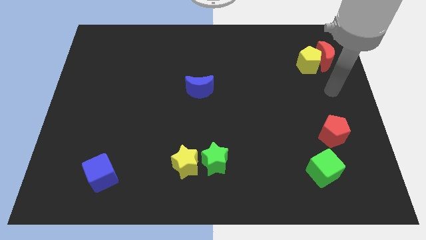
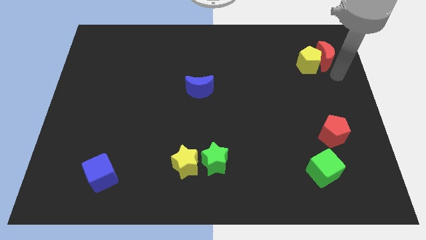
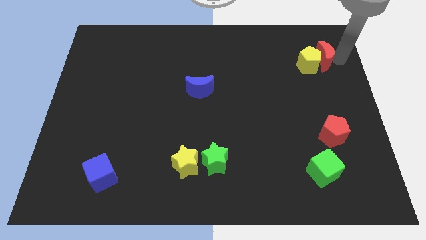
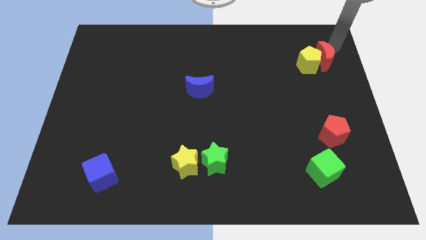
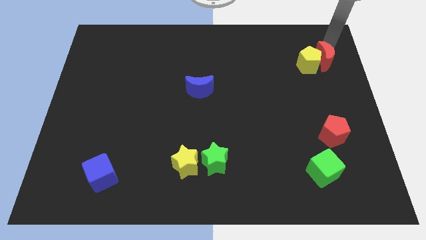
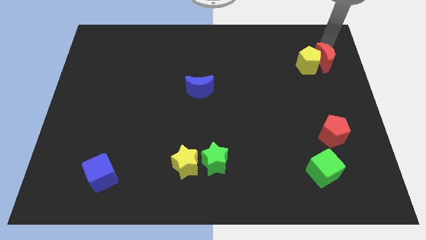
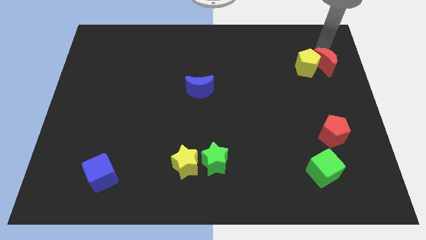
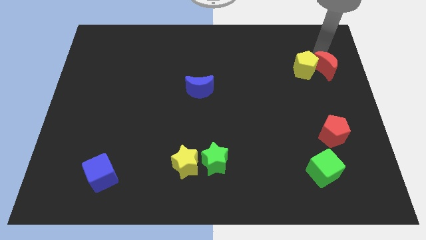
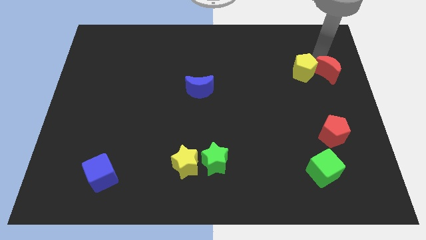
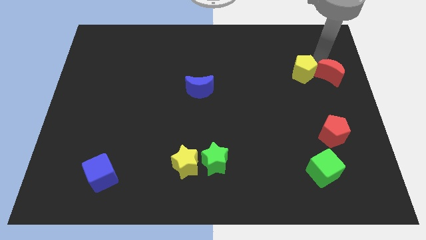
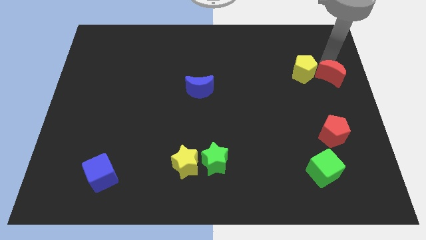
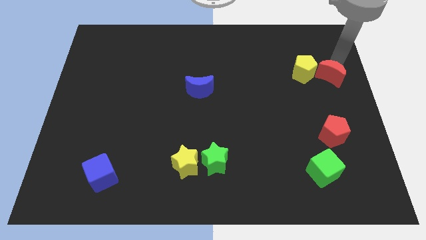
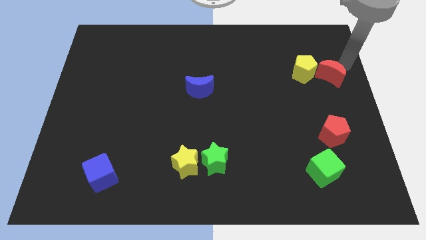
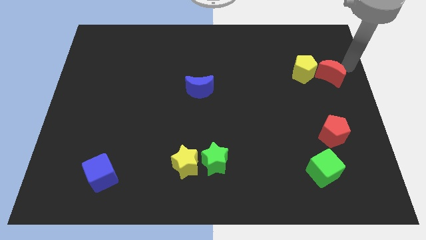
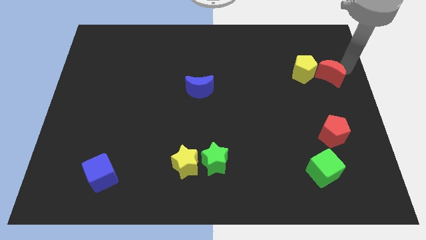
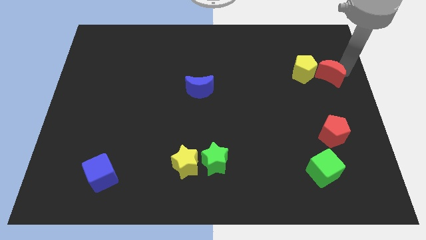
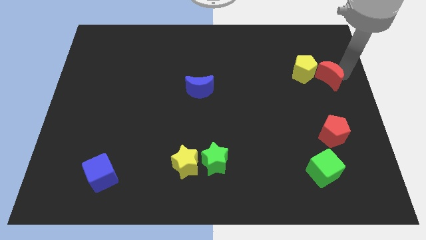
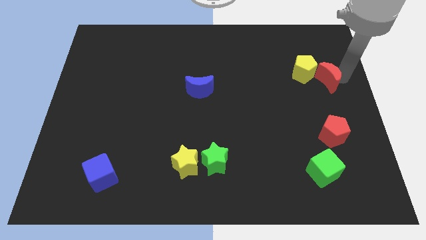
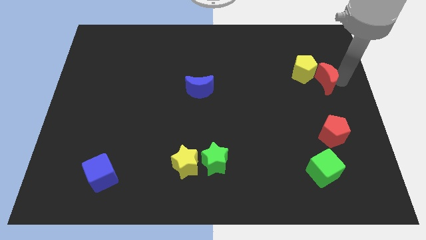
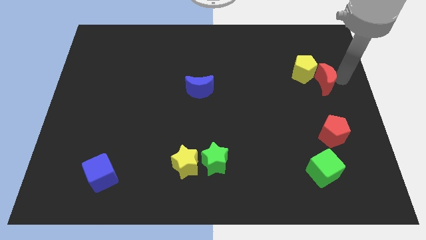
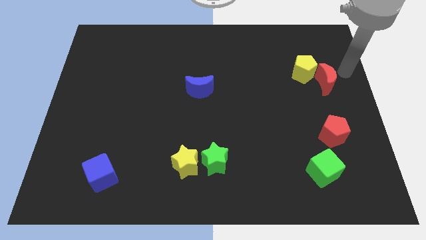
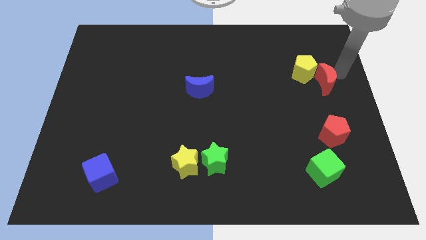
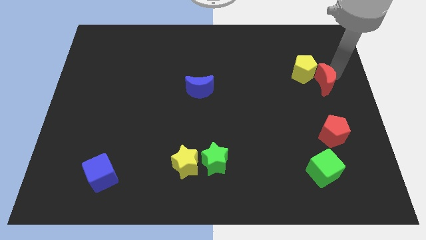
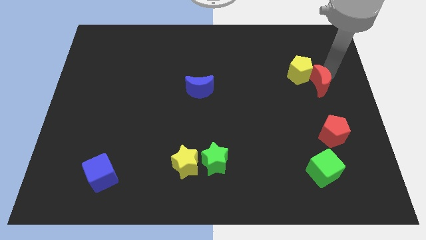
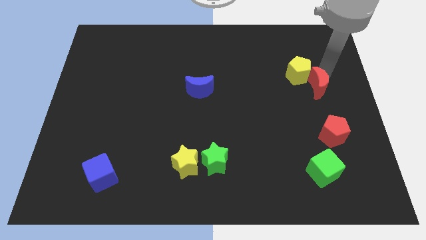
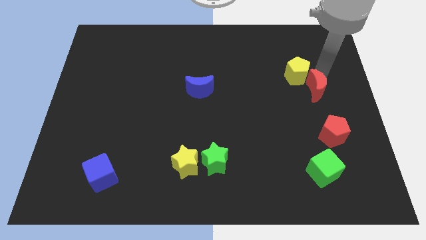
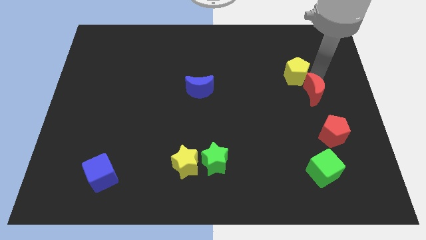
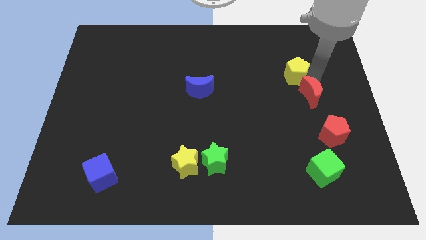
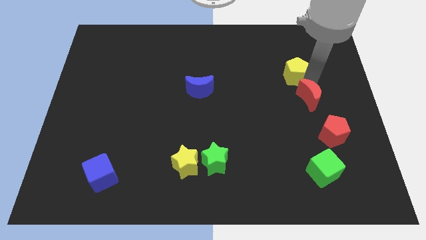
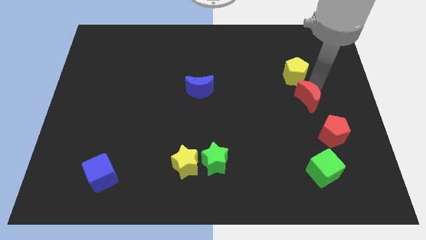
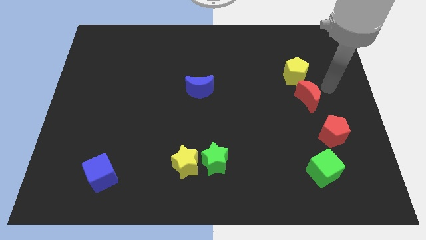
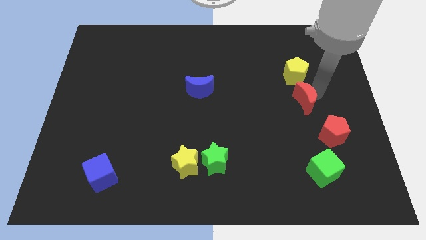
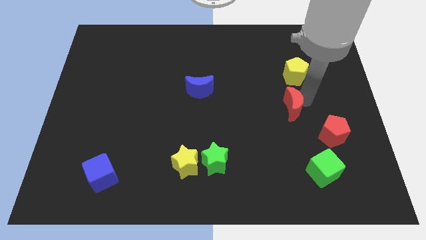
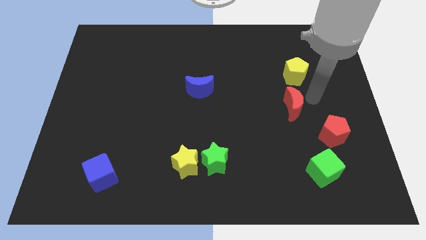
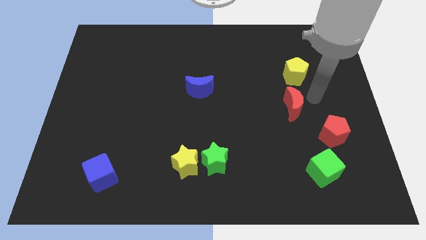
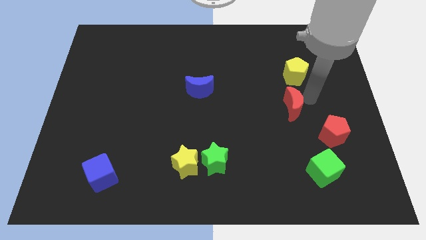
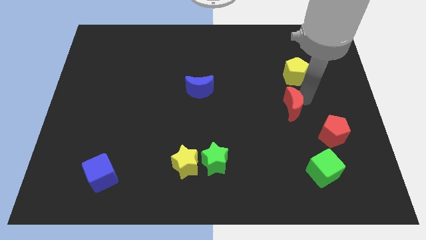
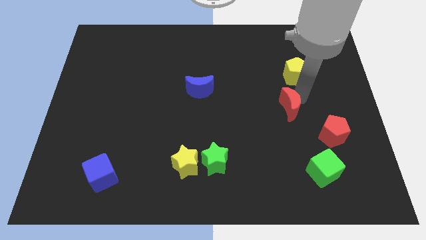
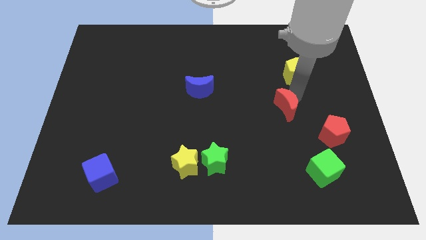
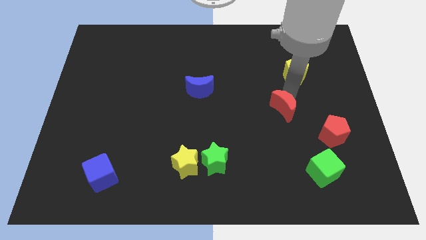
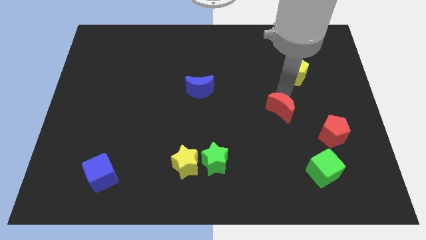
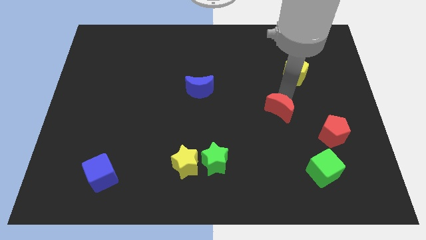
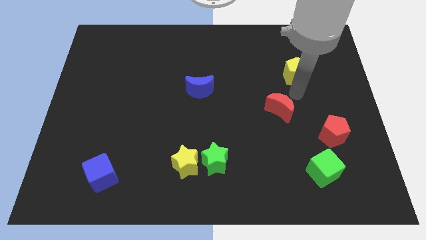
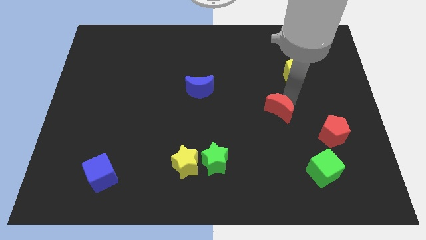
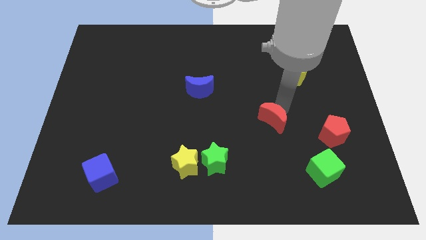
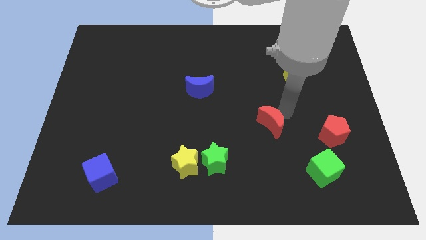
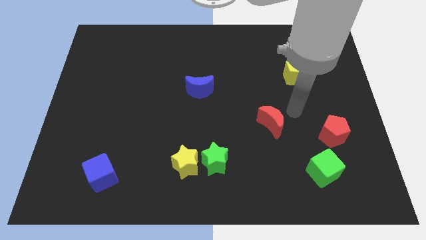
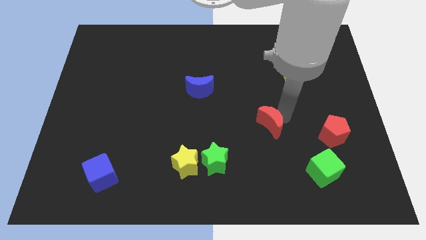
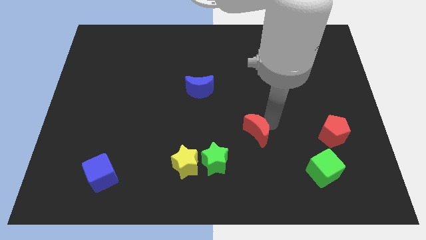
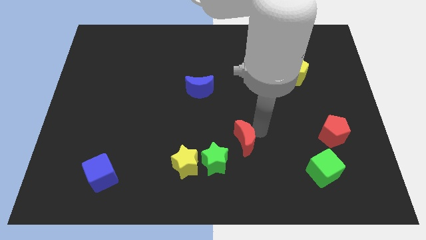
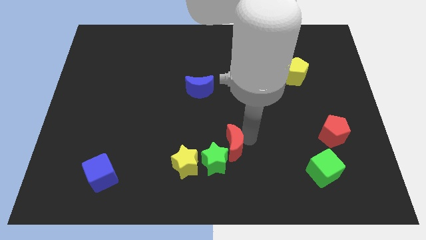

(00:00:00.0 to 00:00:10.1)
put the red moon next to the green star
